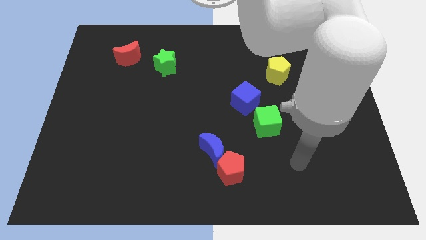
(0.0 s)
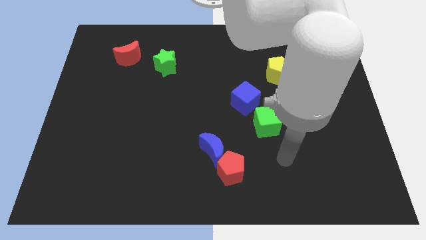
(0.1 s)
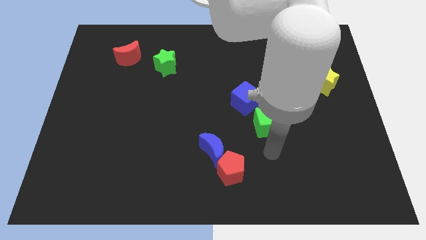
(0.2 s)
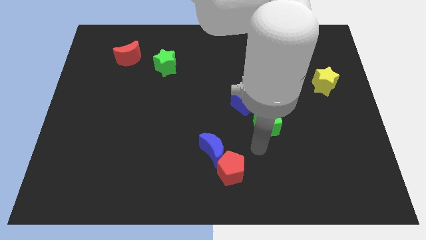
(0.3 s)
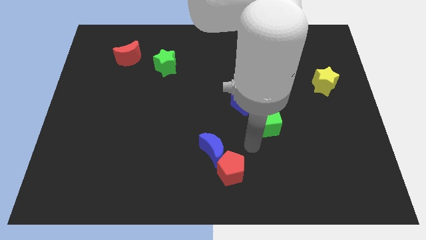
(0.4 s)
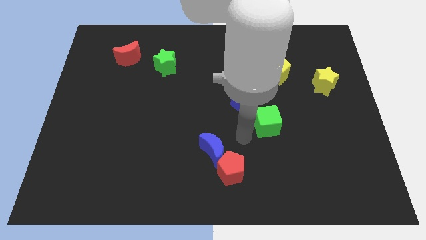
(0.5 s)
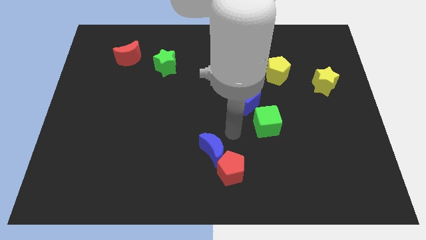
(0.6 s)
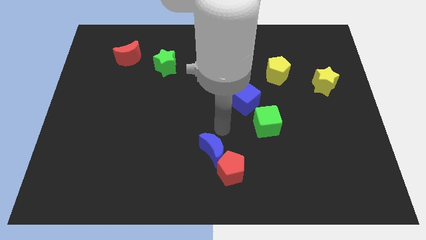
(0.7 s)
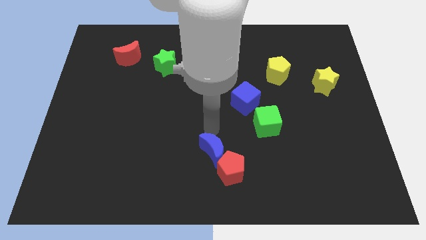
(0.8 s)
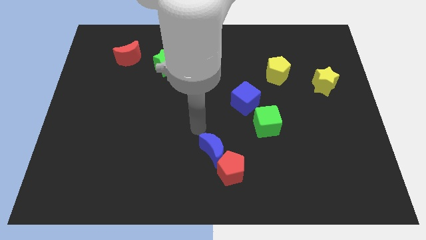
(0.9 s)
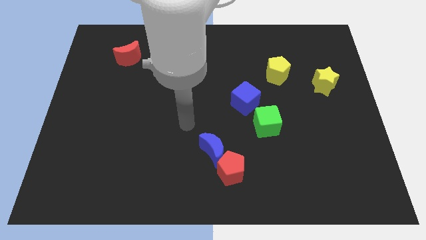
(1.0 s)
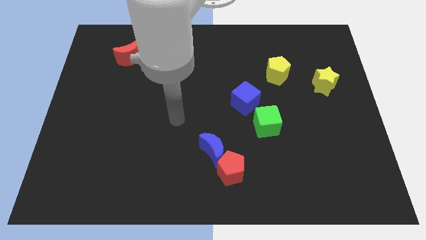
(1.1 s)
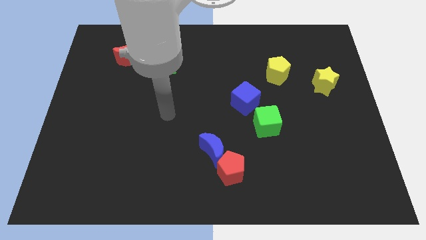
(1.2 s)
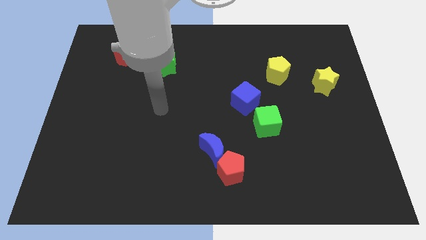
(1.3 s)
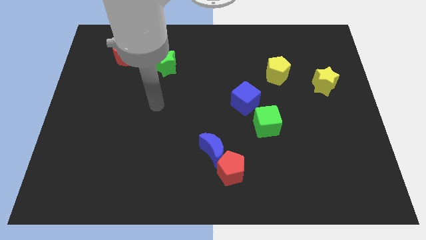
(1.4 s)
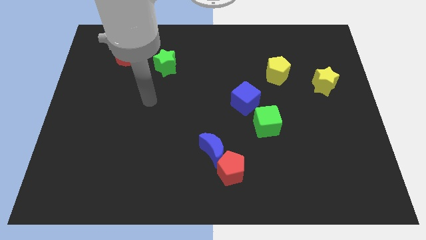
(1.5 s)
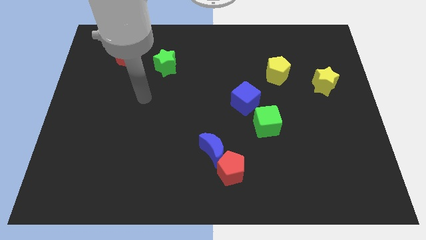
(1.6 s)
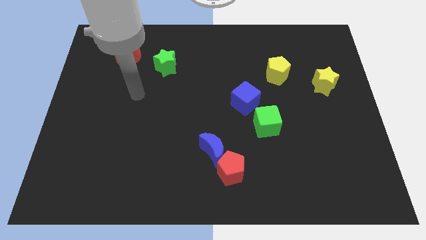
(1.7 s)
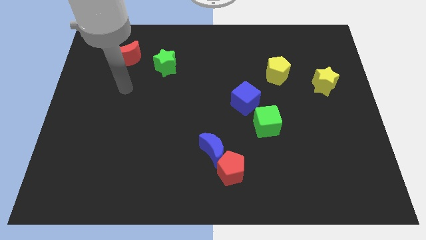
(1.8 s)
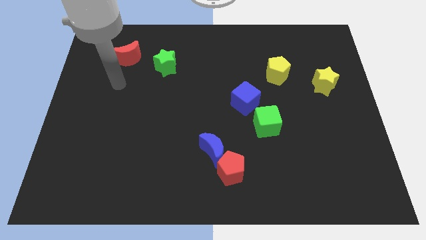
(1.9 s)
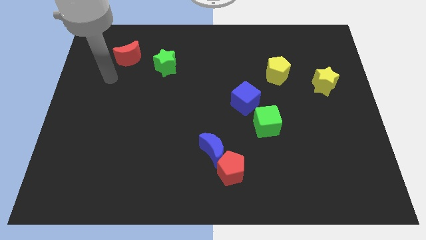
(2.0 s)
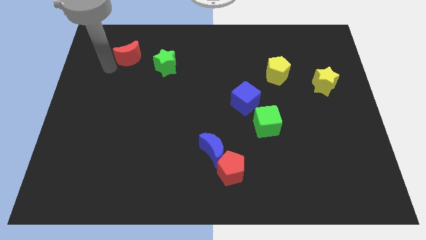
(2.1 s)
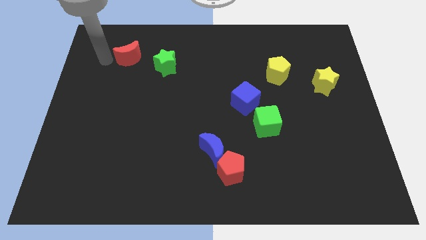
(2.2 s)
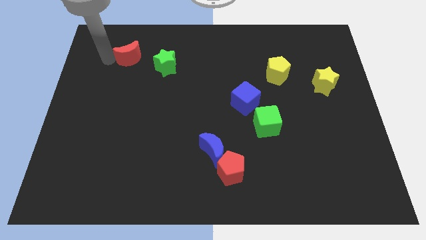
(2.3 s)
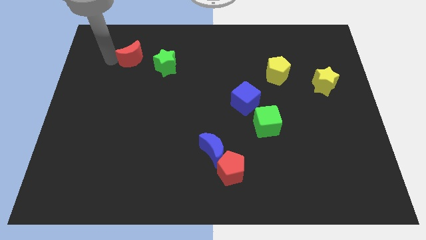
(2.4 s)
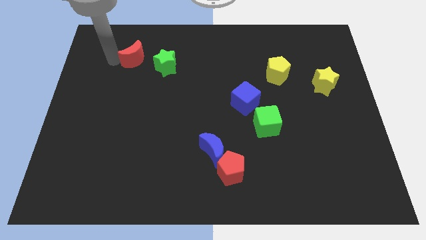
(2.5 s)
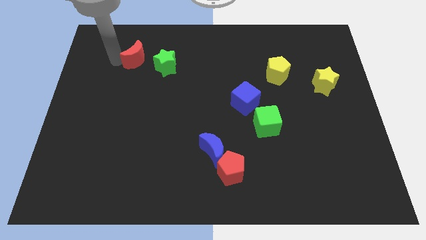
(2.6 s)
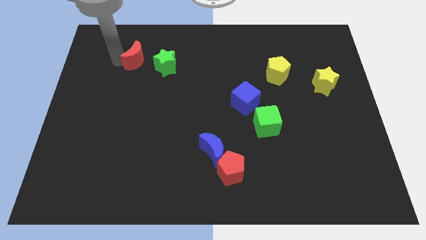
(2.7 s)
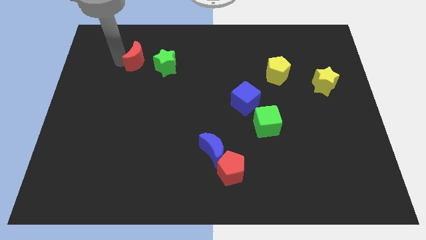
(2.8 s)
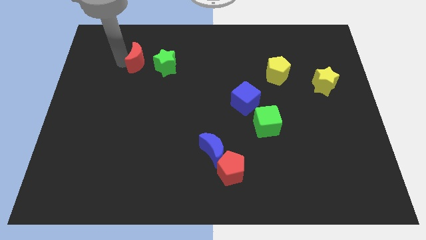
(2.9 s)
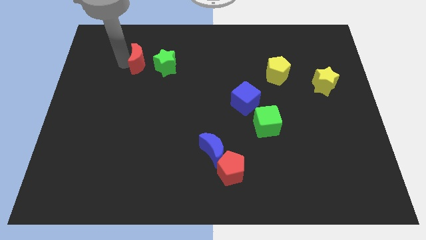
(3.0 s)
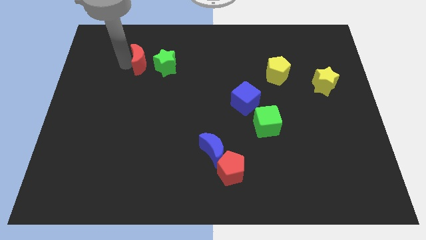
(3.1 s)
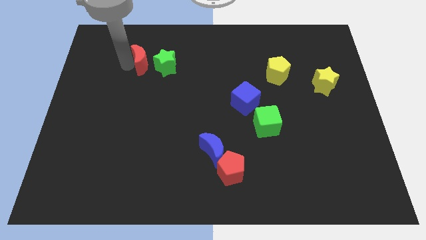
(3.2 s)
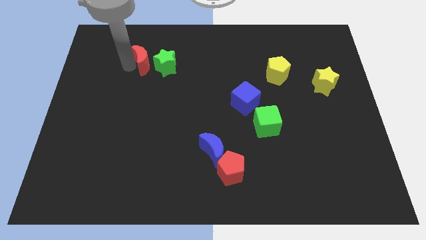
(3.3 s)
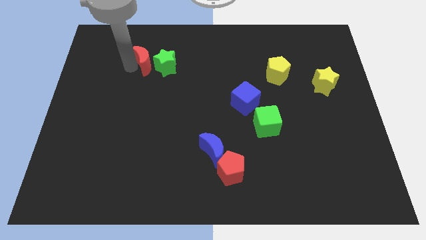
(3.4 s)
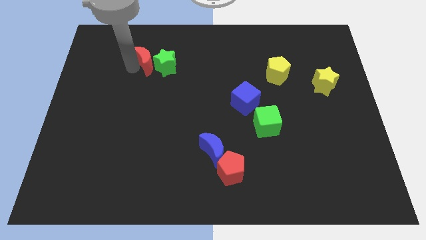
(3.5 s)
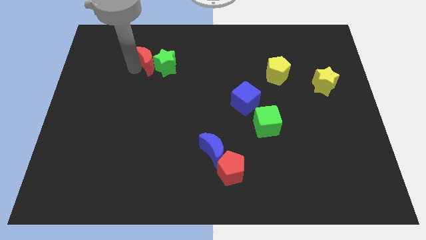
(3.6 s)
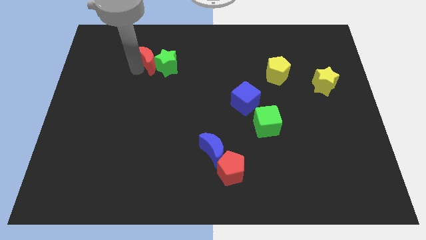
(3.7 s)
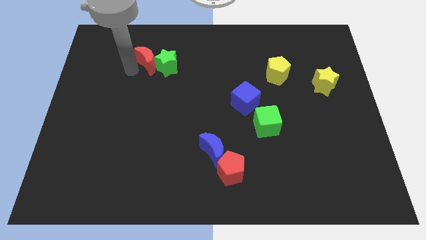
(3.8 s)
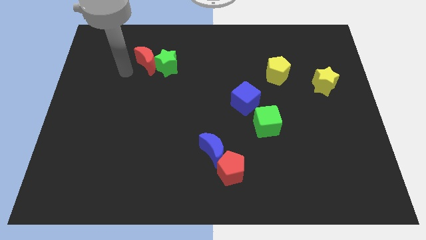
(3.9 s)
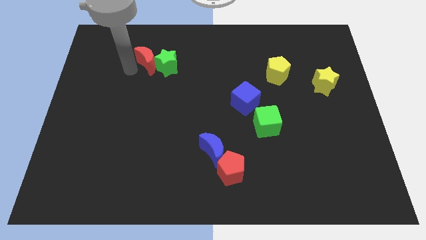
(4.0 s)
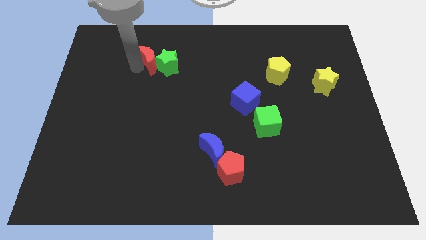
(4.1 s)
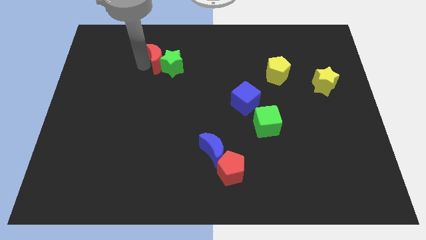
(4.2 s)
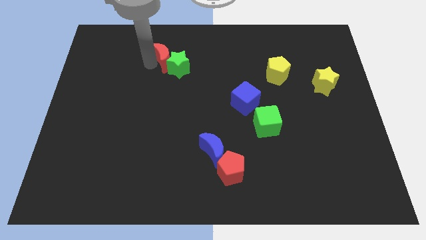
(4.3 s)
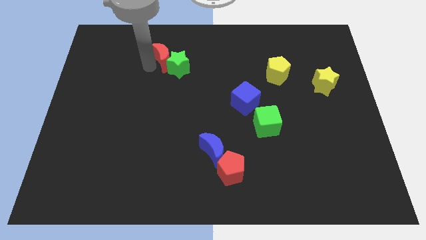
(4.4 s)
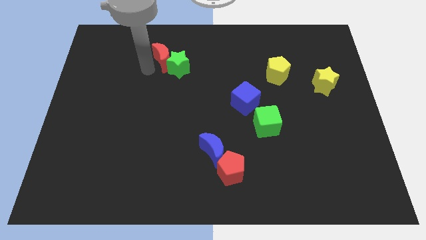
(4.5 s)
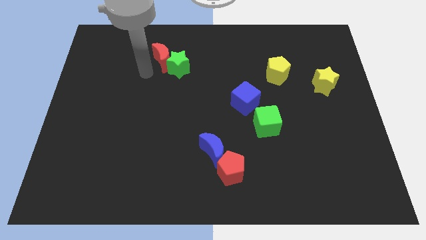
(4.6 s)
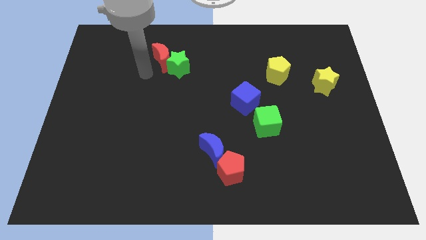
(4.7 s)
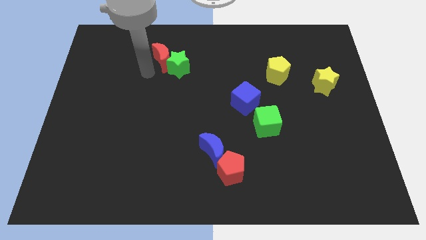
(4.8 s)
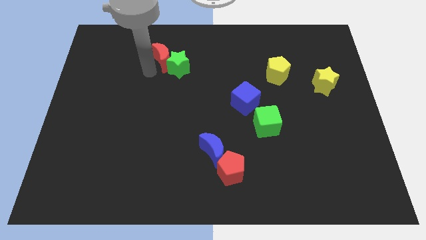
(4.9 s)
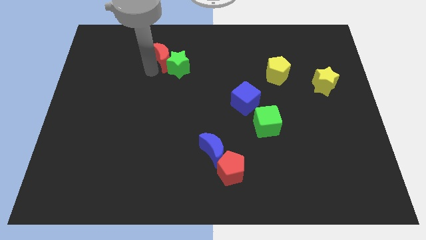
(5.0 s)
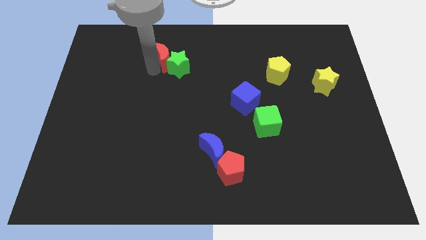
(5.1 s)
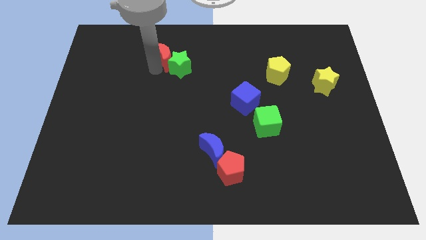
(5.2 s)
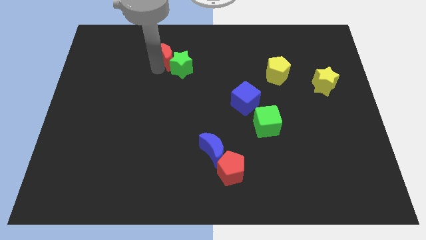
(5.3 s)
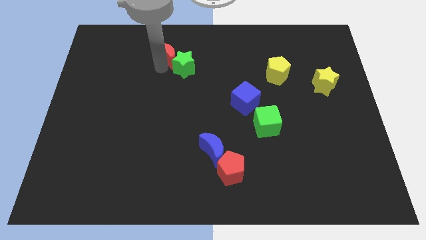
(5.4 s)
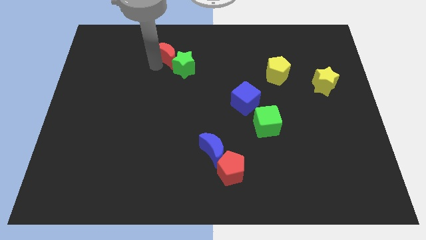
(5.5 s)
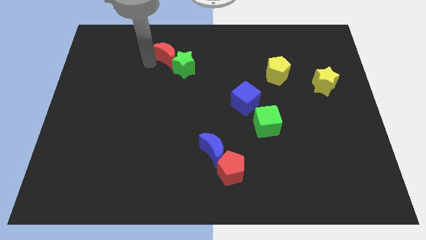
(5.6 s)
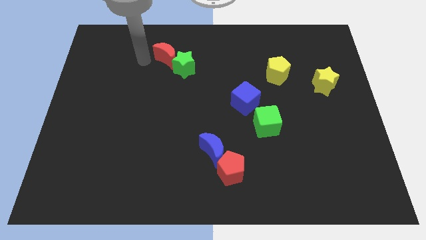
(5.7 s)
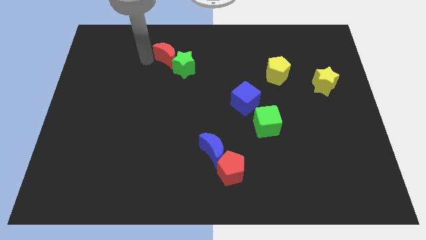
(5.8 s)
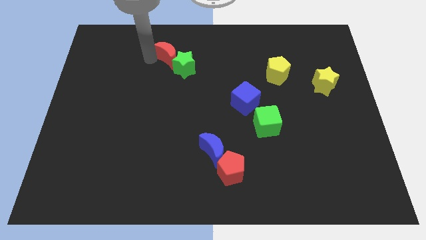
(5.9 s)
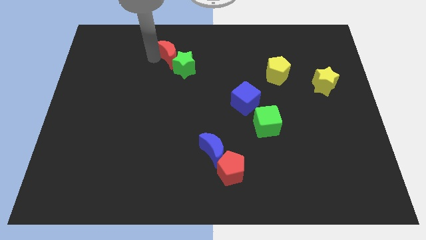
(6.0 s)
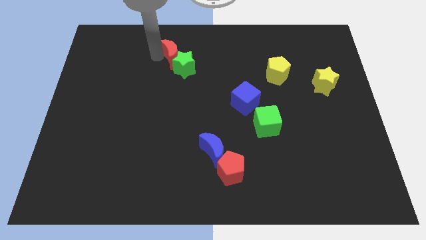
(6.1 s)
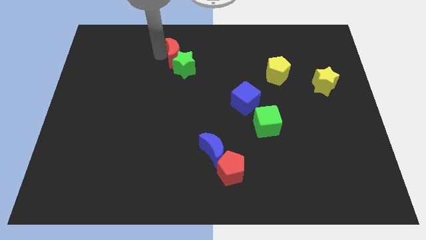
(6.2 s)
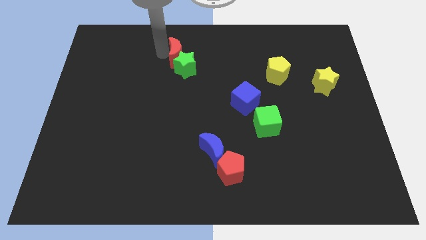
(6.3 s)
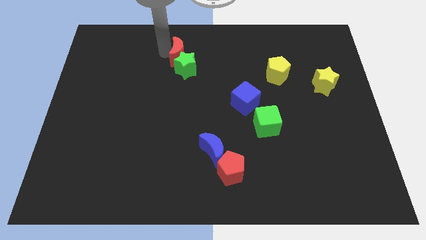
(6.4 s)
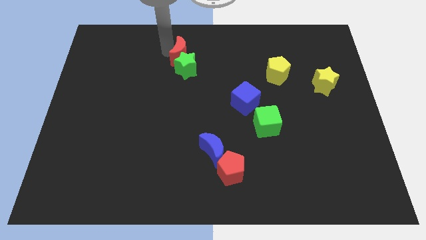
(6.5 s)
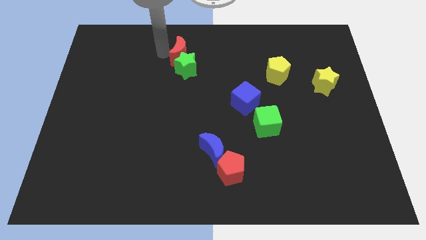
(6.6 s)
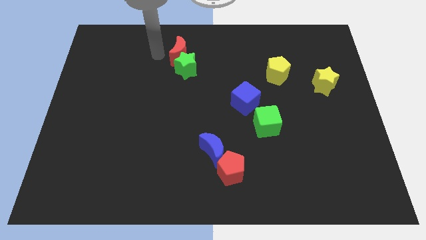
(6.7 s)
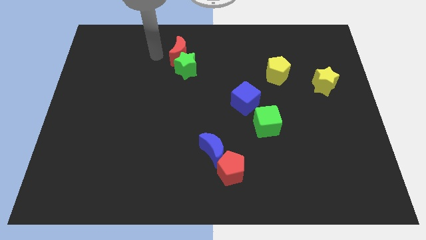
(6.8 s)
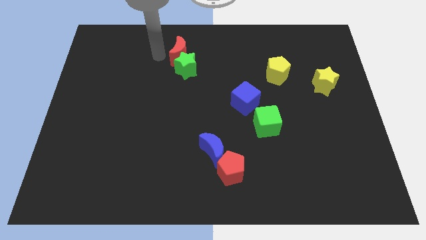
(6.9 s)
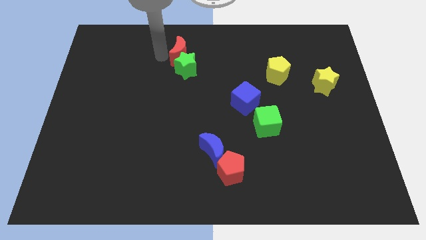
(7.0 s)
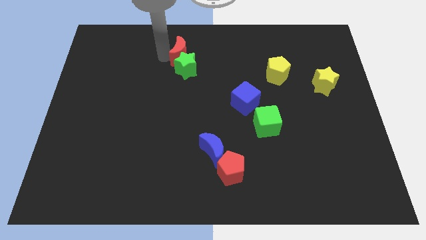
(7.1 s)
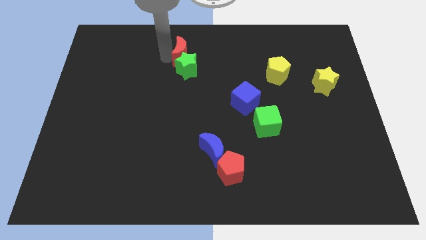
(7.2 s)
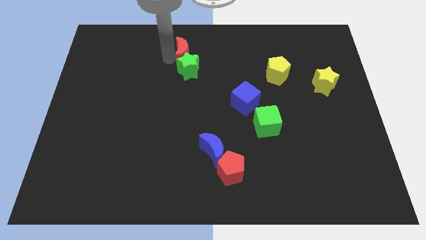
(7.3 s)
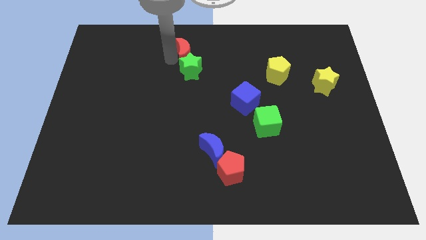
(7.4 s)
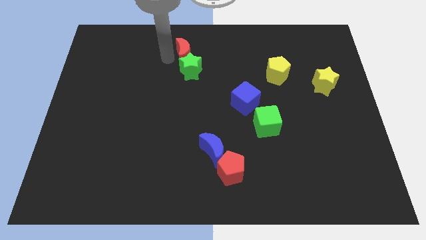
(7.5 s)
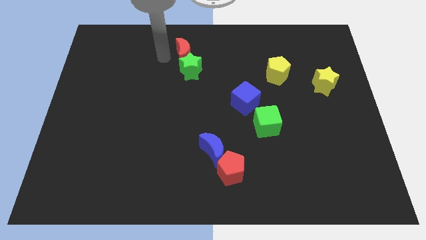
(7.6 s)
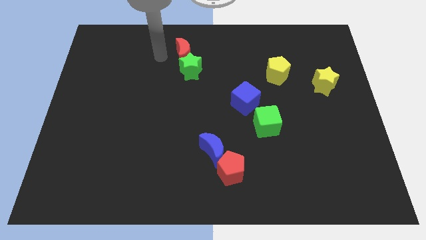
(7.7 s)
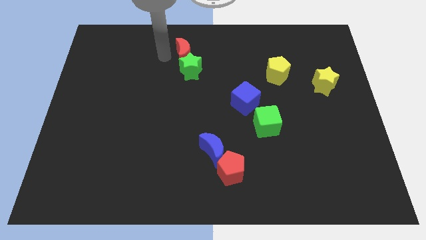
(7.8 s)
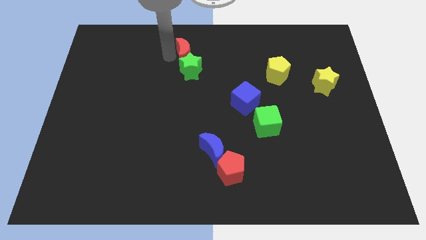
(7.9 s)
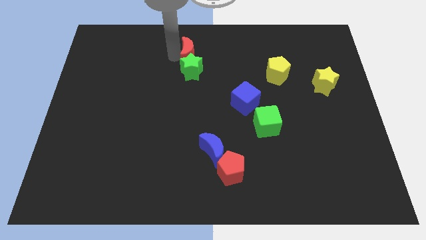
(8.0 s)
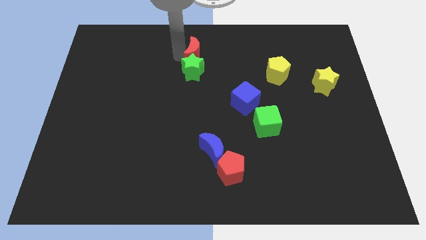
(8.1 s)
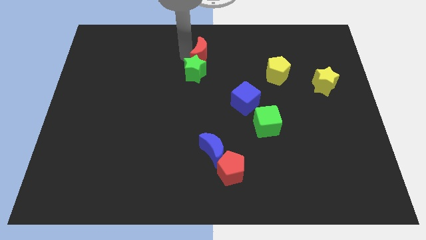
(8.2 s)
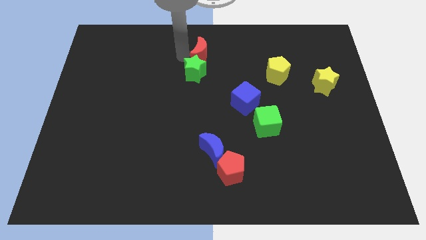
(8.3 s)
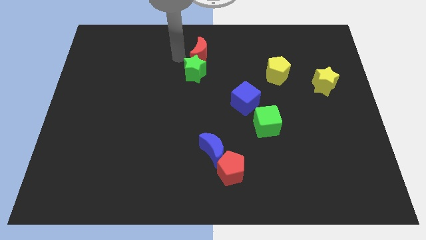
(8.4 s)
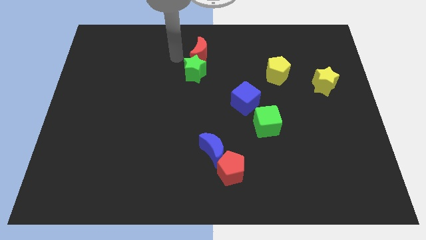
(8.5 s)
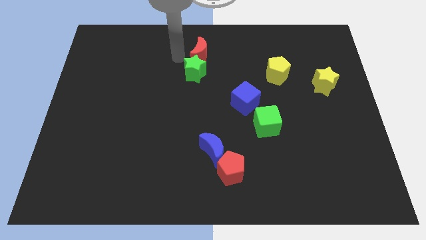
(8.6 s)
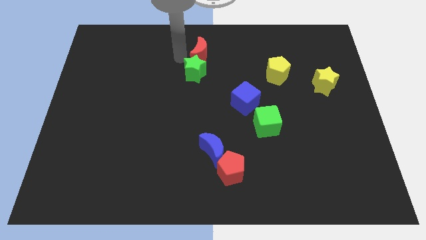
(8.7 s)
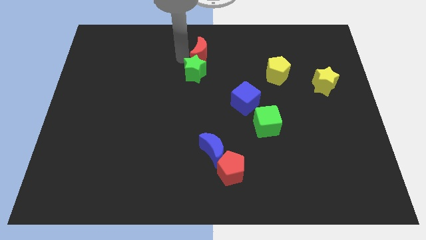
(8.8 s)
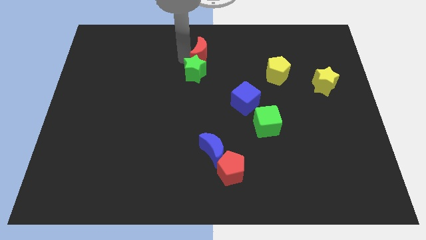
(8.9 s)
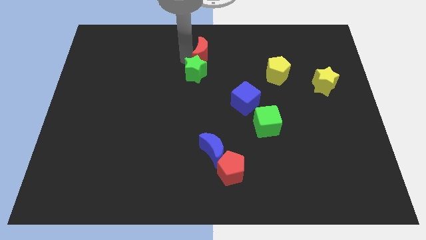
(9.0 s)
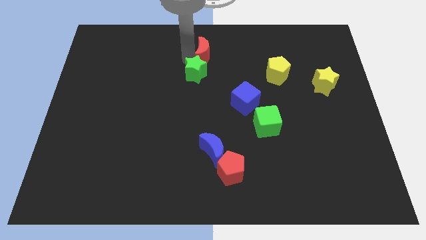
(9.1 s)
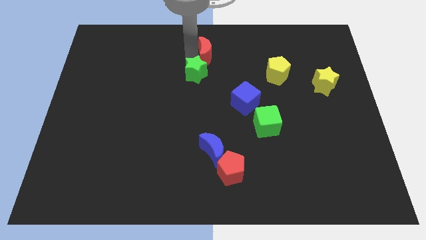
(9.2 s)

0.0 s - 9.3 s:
push the red moon right
